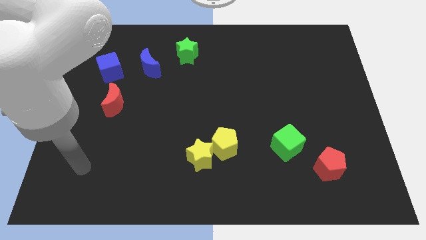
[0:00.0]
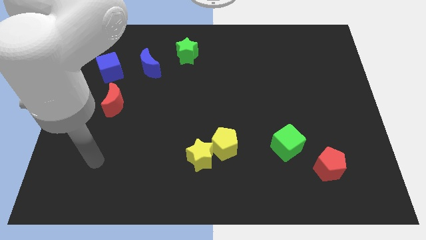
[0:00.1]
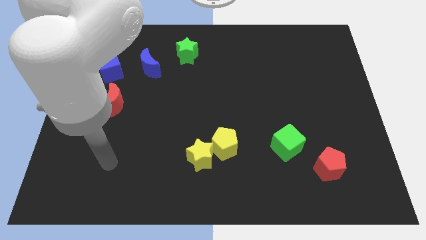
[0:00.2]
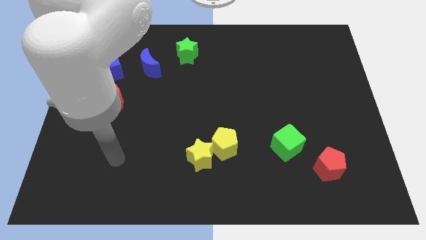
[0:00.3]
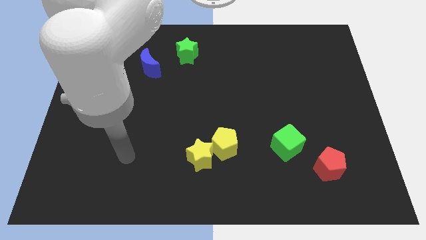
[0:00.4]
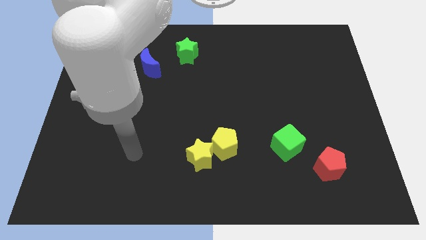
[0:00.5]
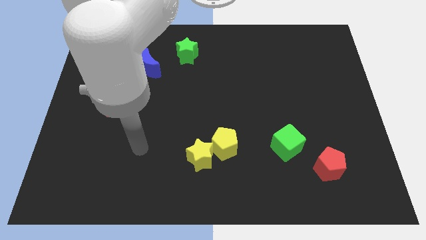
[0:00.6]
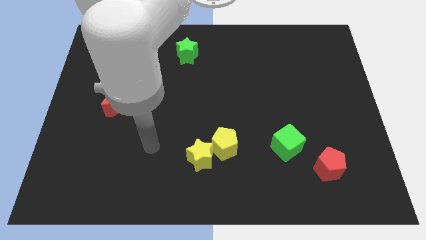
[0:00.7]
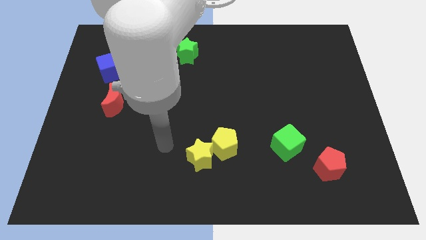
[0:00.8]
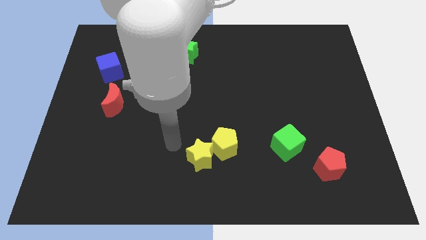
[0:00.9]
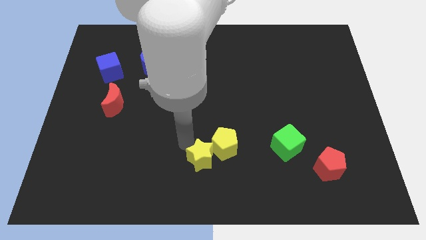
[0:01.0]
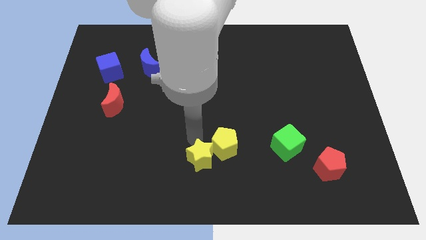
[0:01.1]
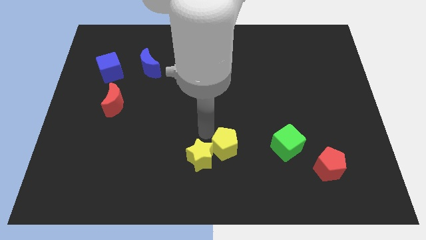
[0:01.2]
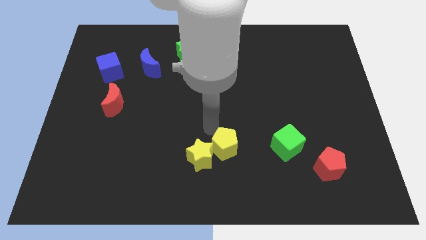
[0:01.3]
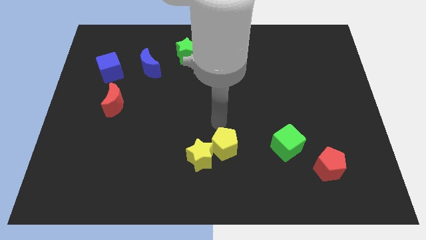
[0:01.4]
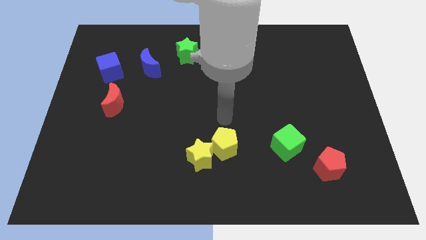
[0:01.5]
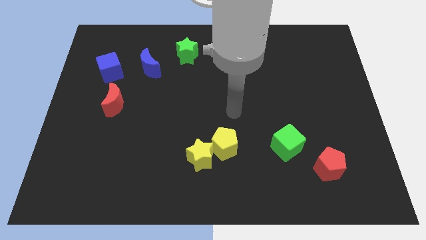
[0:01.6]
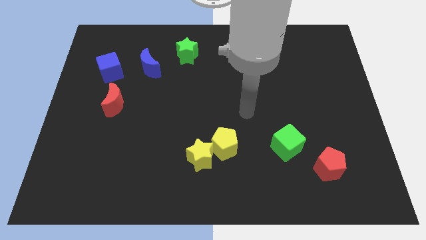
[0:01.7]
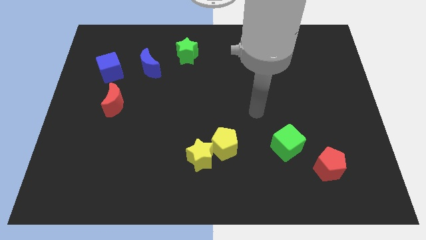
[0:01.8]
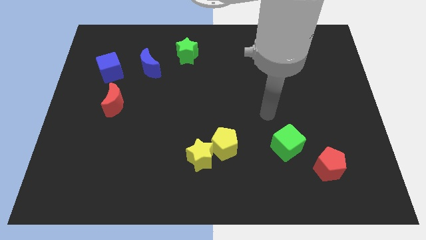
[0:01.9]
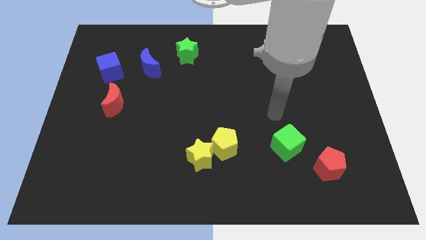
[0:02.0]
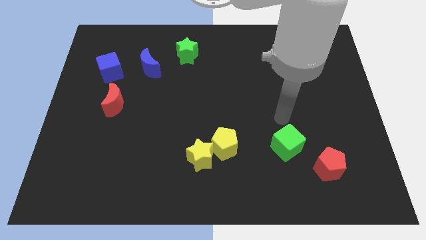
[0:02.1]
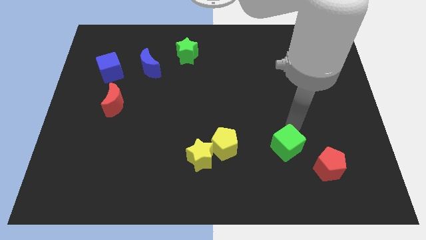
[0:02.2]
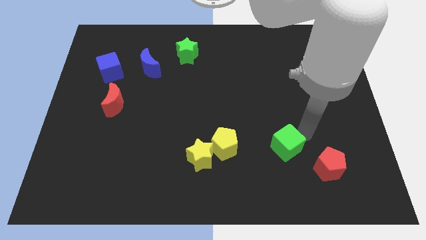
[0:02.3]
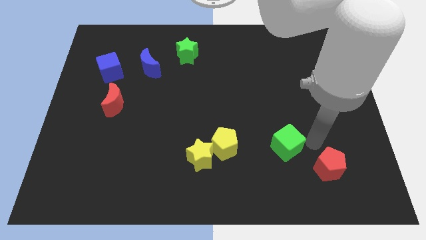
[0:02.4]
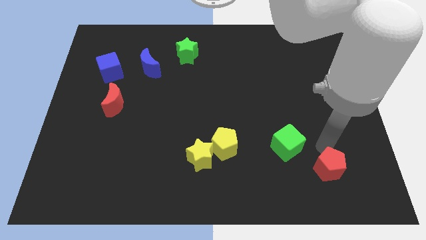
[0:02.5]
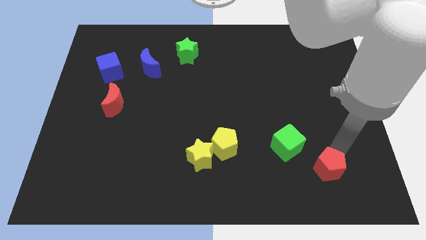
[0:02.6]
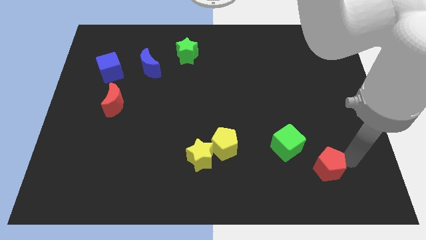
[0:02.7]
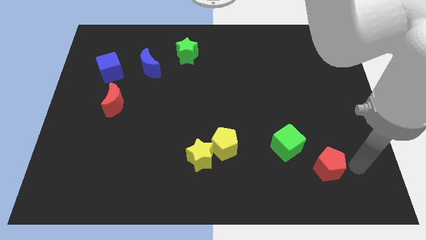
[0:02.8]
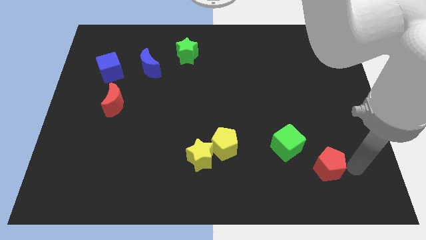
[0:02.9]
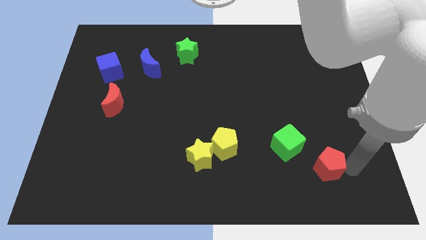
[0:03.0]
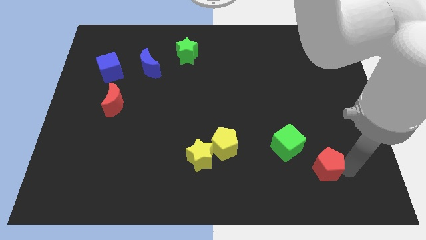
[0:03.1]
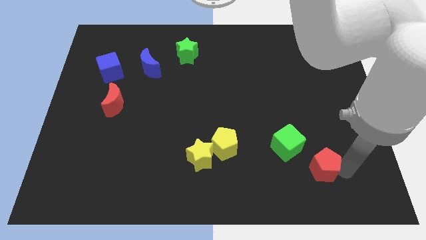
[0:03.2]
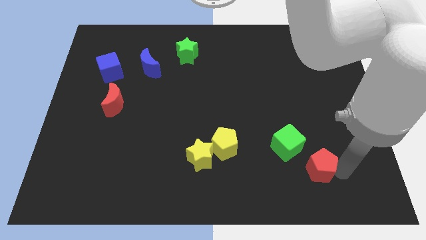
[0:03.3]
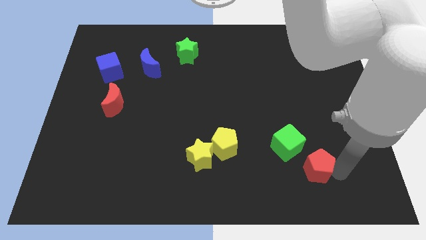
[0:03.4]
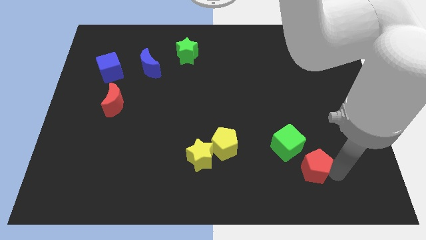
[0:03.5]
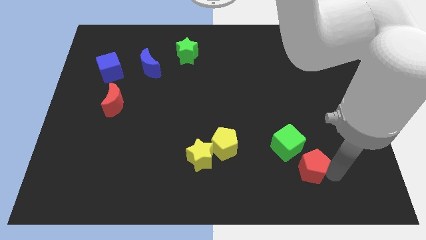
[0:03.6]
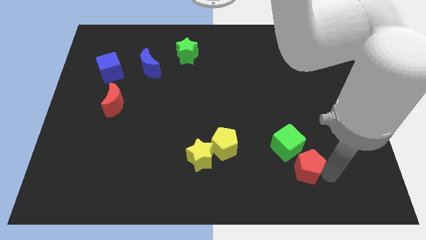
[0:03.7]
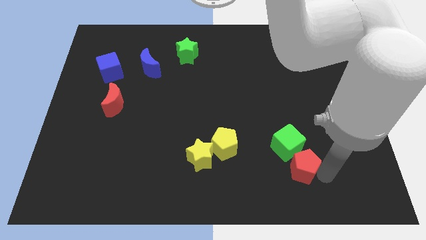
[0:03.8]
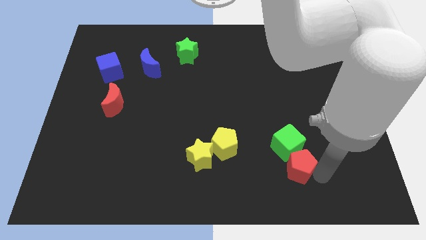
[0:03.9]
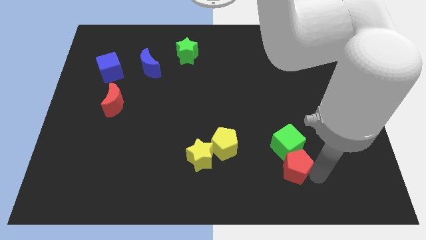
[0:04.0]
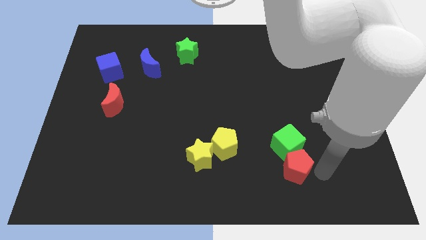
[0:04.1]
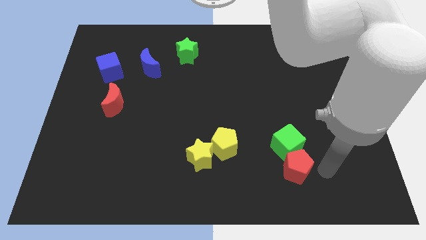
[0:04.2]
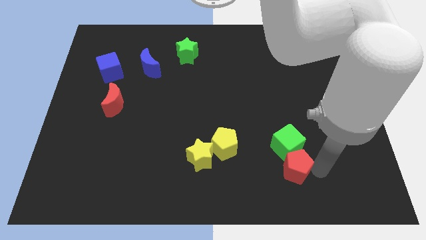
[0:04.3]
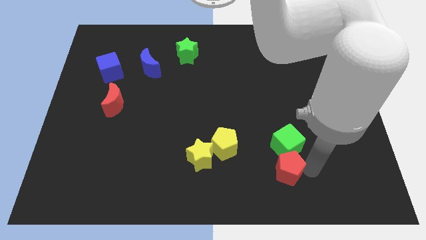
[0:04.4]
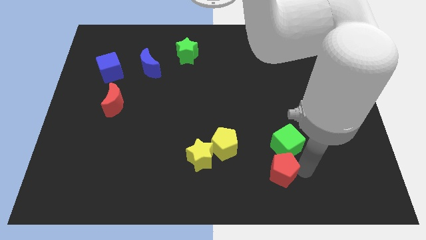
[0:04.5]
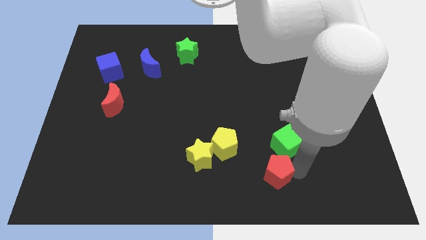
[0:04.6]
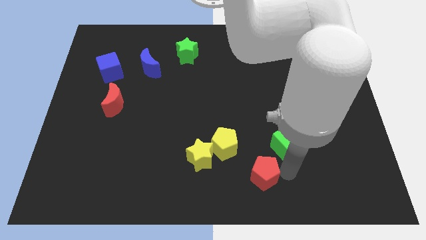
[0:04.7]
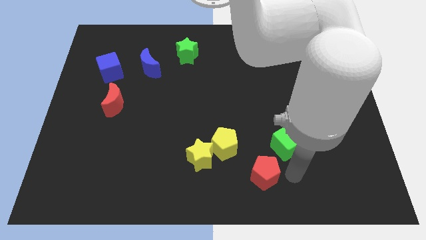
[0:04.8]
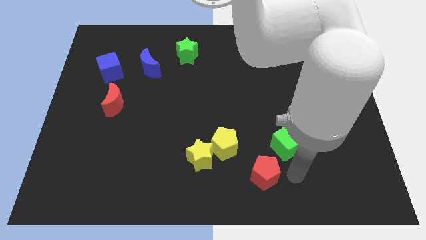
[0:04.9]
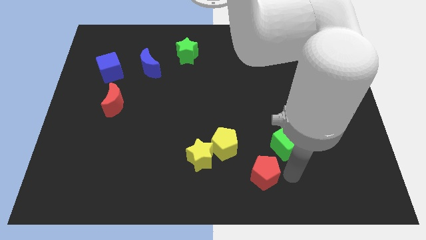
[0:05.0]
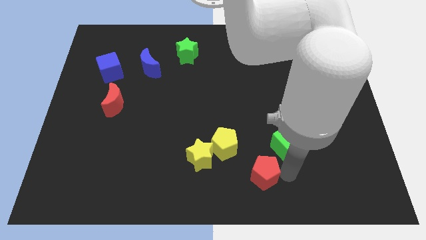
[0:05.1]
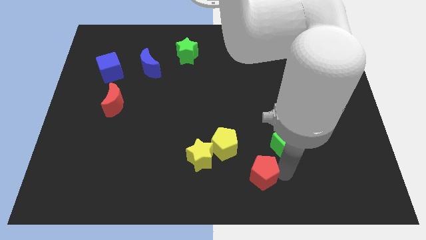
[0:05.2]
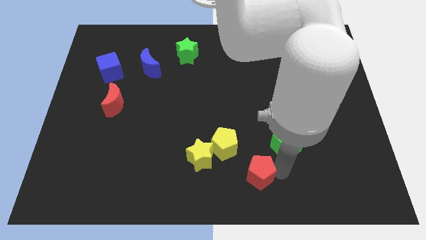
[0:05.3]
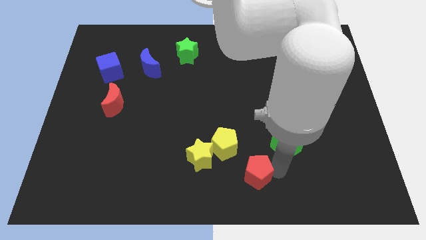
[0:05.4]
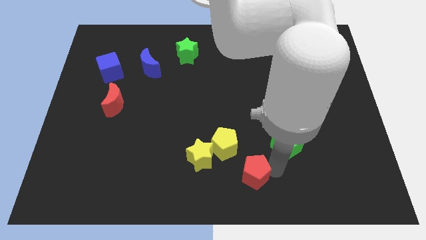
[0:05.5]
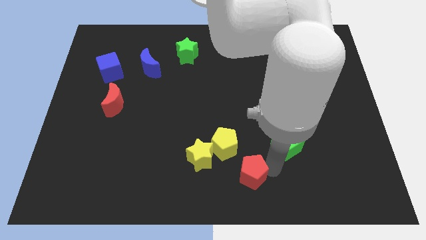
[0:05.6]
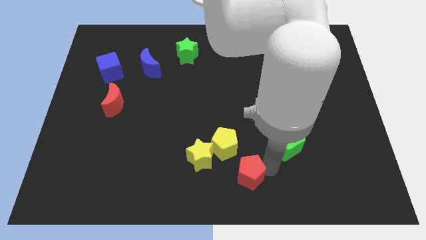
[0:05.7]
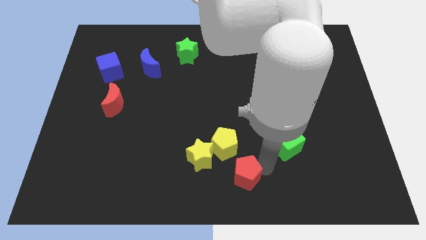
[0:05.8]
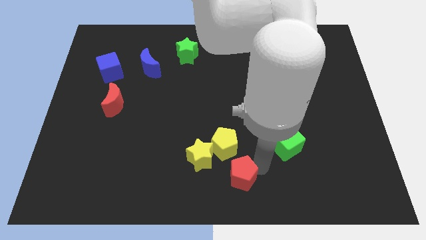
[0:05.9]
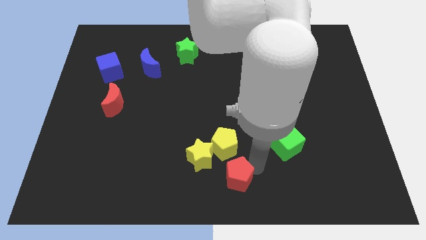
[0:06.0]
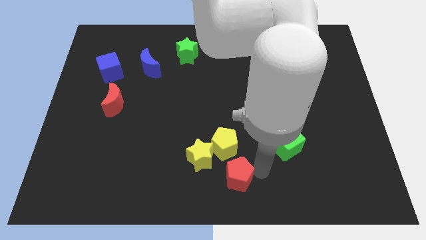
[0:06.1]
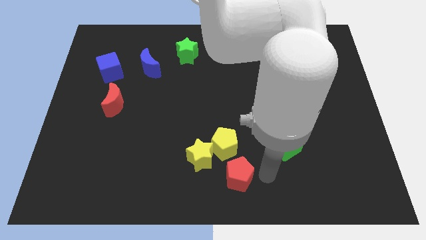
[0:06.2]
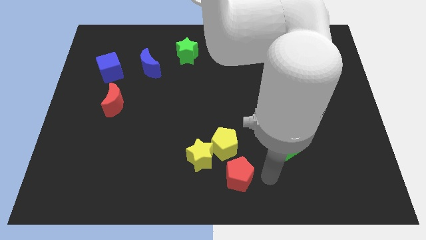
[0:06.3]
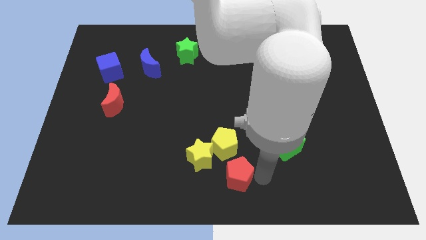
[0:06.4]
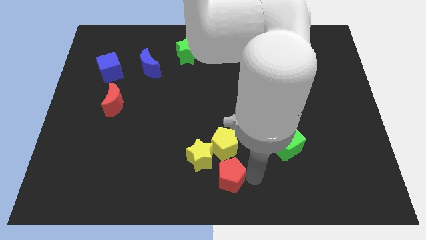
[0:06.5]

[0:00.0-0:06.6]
push the red pentagon left

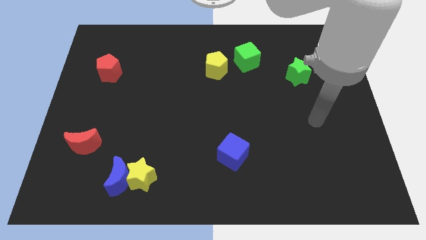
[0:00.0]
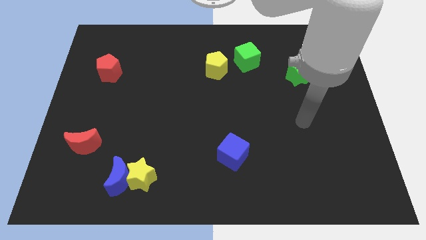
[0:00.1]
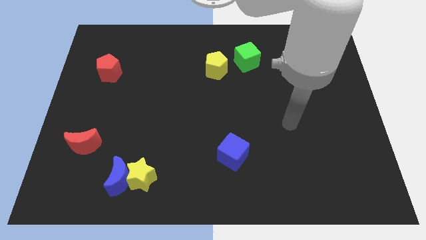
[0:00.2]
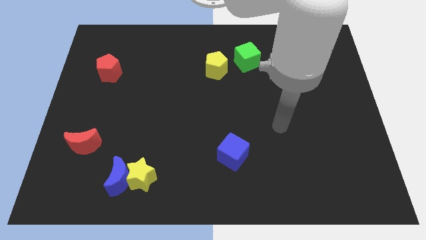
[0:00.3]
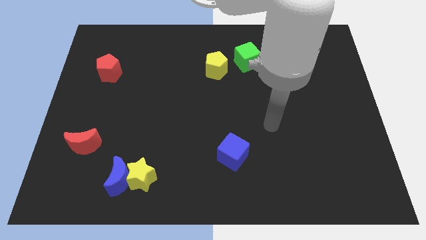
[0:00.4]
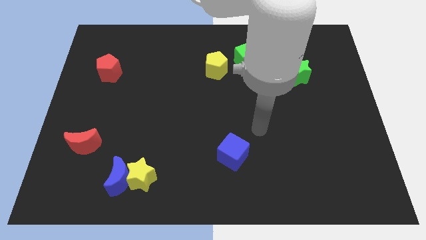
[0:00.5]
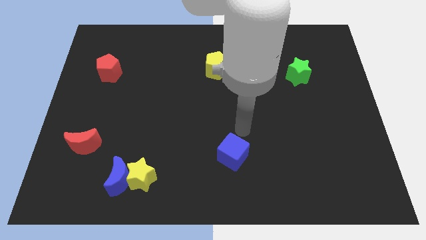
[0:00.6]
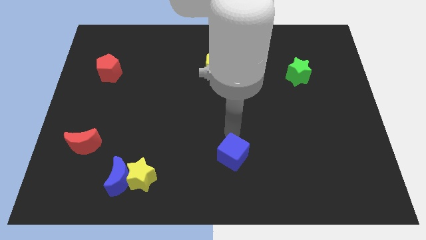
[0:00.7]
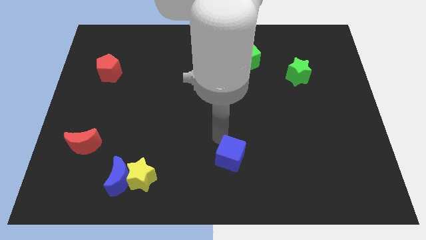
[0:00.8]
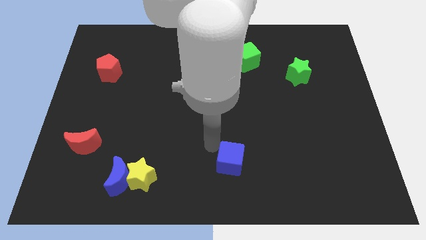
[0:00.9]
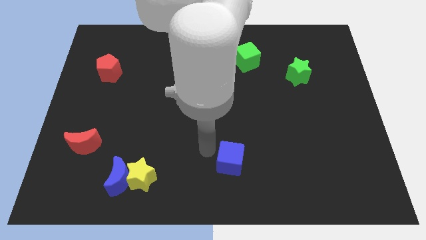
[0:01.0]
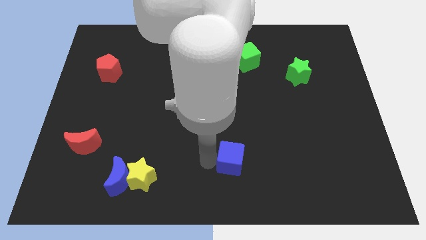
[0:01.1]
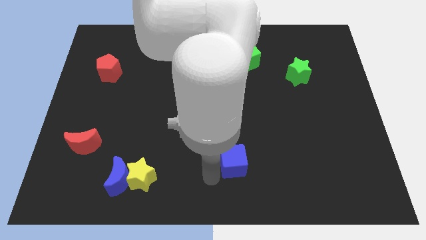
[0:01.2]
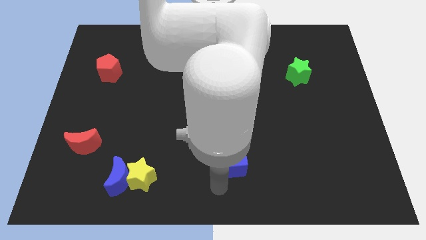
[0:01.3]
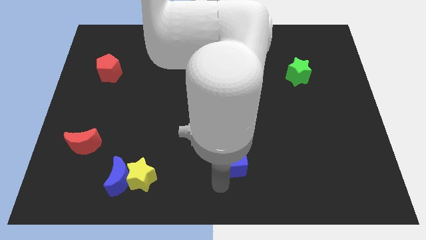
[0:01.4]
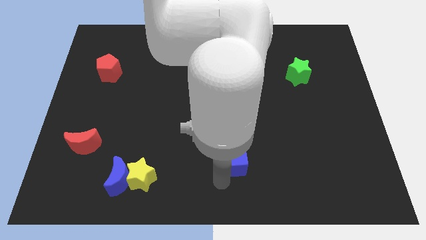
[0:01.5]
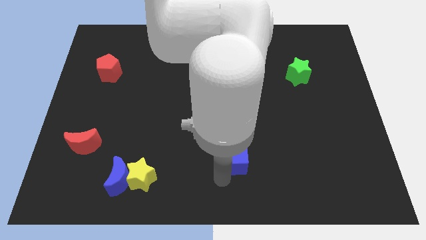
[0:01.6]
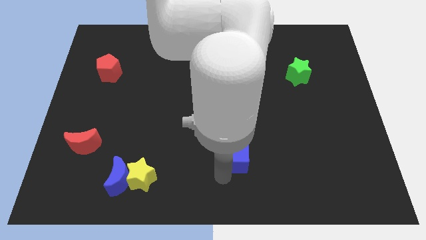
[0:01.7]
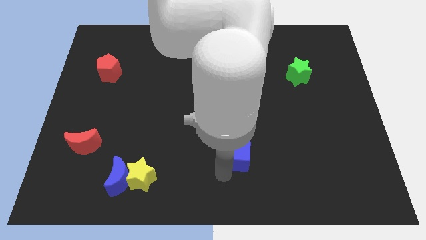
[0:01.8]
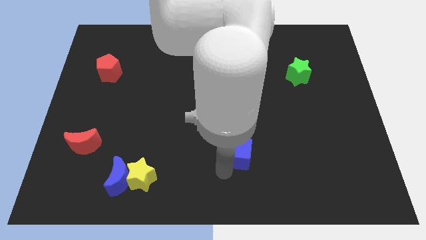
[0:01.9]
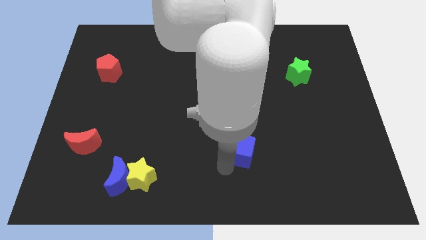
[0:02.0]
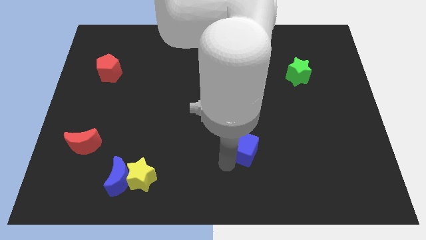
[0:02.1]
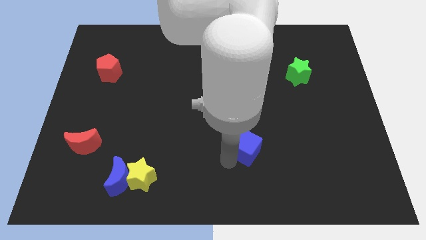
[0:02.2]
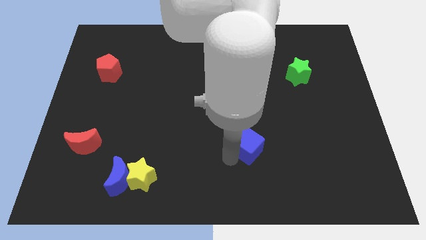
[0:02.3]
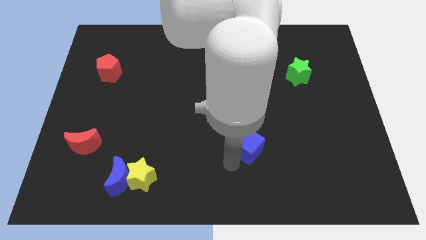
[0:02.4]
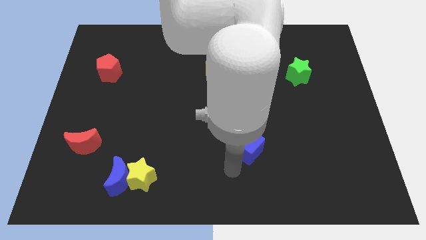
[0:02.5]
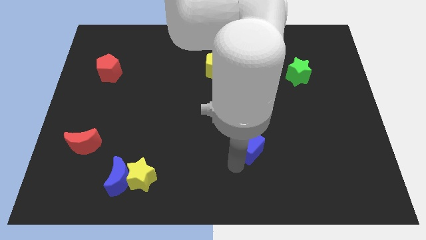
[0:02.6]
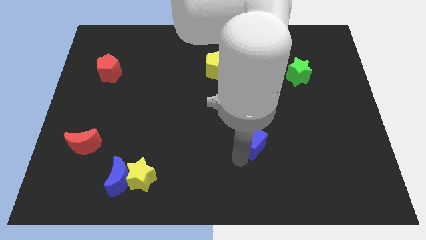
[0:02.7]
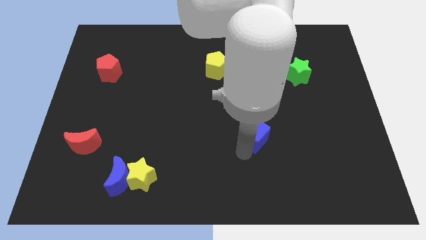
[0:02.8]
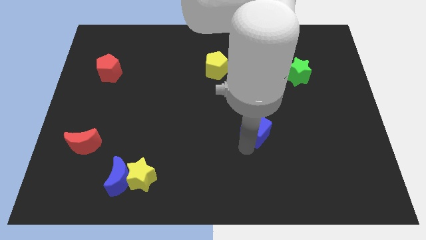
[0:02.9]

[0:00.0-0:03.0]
move the blue cube a little upwards and then right
